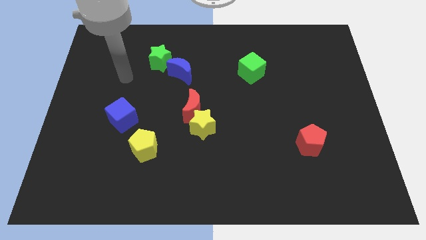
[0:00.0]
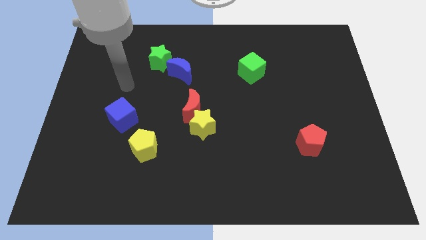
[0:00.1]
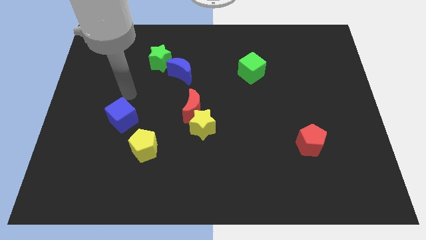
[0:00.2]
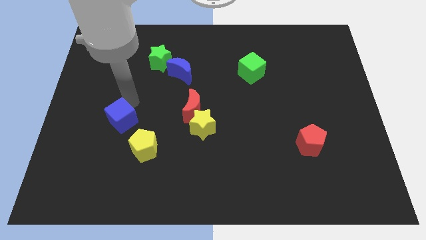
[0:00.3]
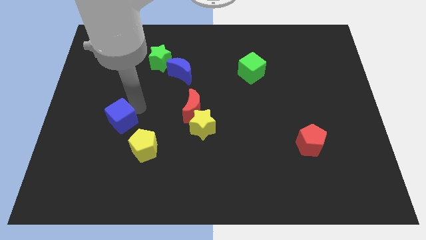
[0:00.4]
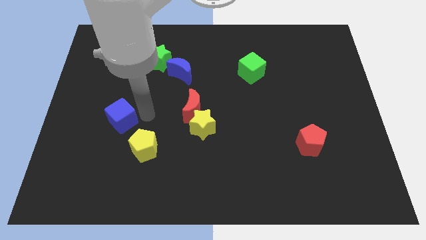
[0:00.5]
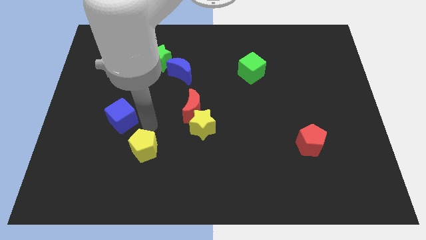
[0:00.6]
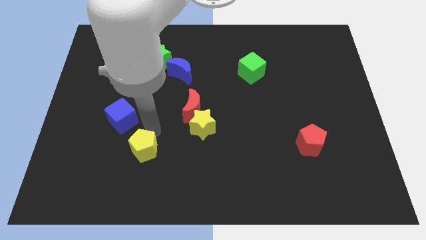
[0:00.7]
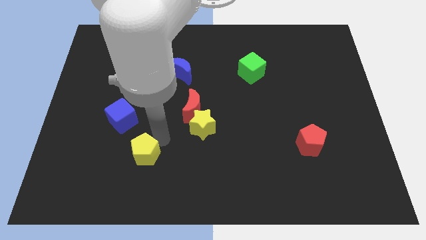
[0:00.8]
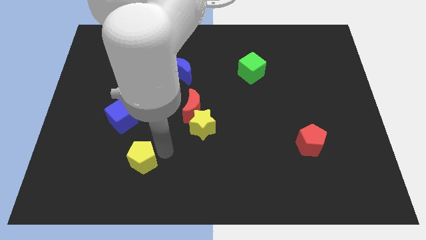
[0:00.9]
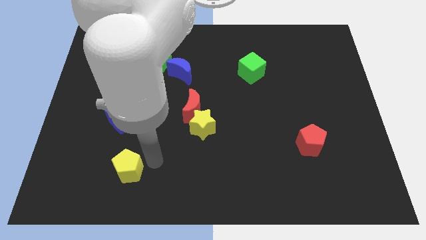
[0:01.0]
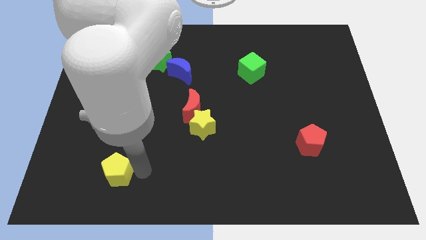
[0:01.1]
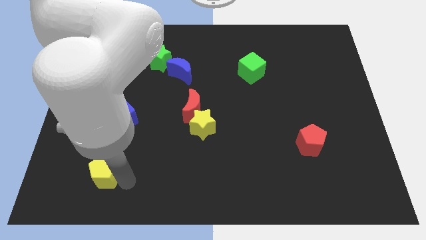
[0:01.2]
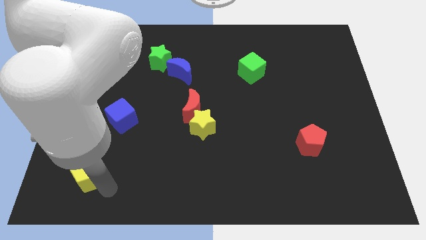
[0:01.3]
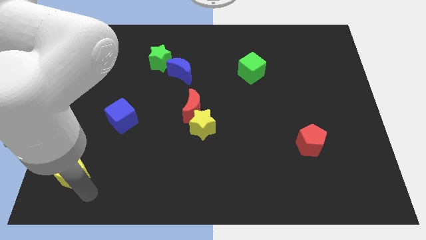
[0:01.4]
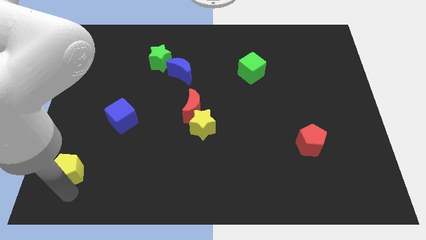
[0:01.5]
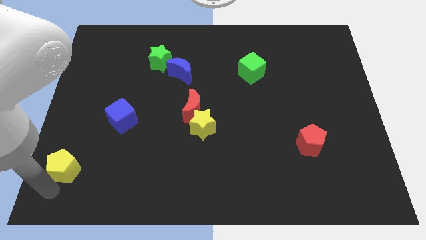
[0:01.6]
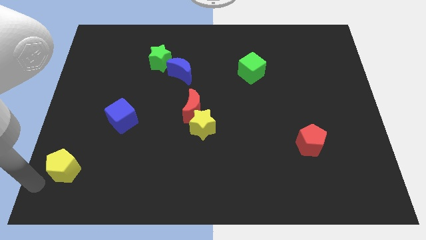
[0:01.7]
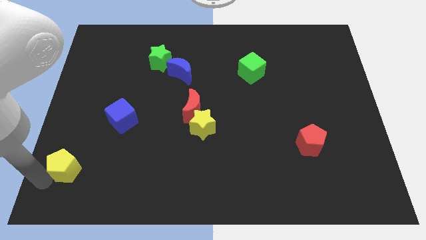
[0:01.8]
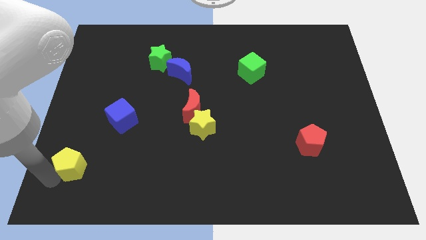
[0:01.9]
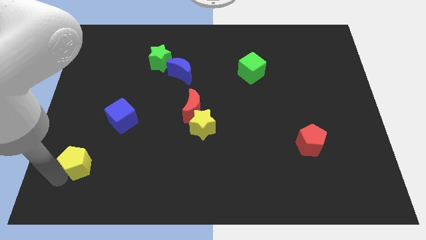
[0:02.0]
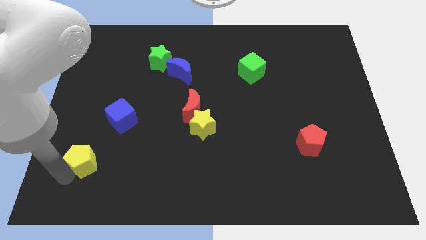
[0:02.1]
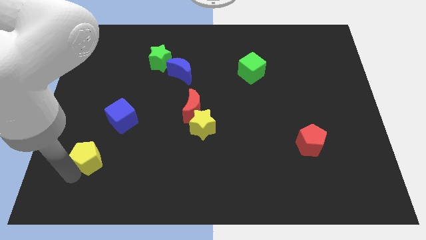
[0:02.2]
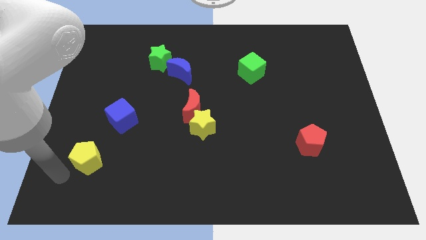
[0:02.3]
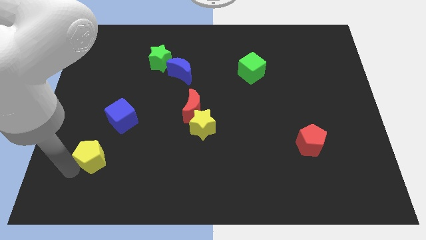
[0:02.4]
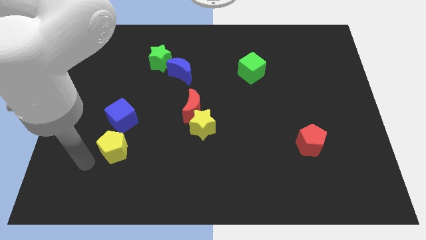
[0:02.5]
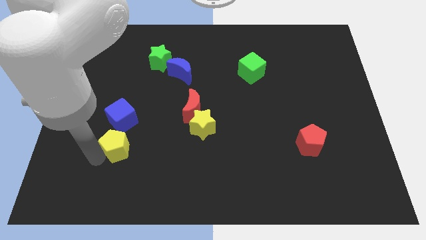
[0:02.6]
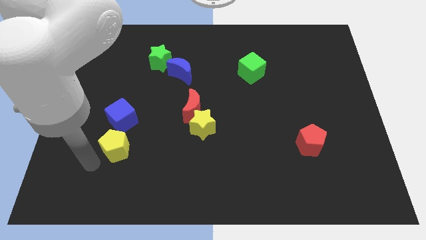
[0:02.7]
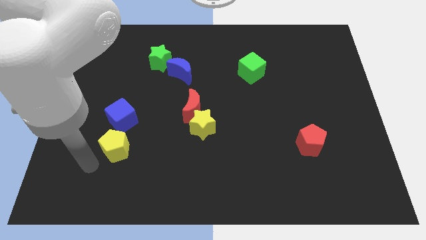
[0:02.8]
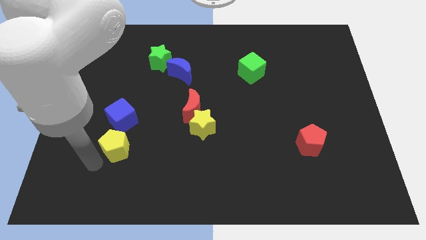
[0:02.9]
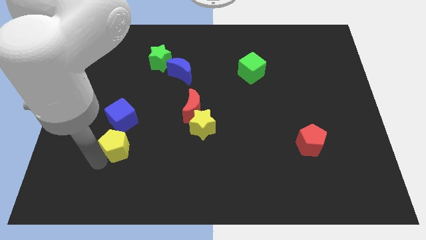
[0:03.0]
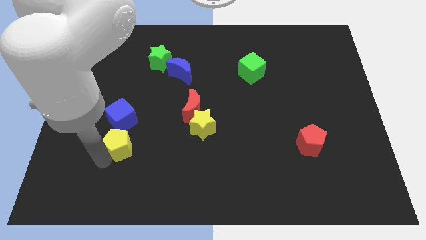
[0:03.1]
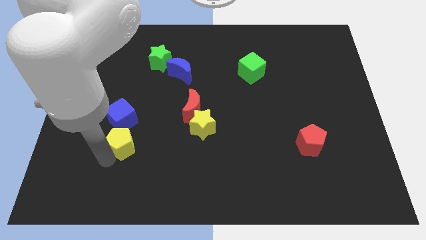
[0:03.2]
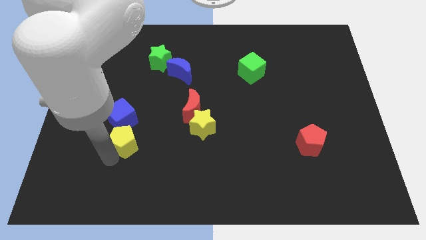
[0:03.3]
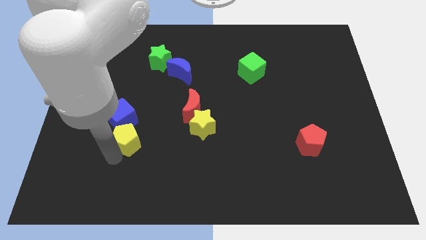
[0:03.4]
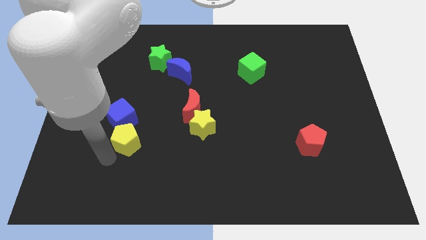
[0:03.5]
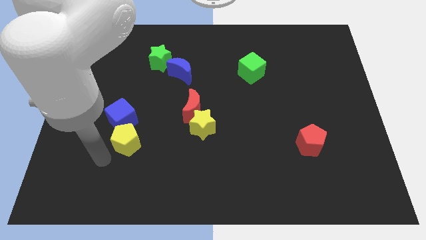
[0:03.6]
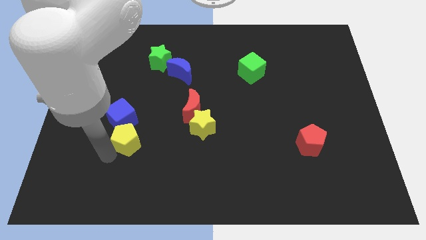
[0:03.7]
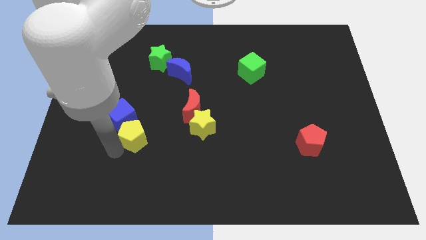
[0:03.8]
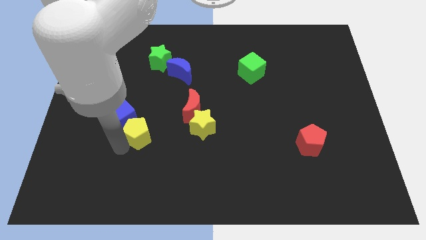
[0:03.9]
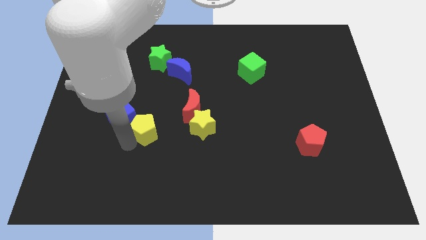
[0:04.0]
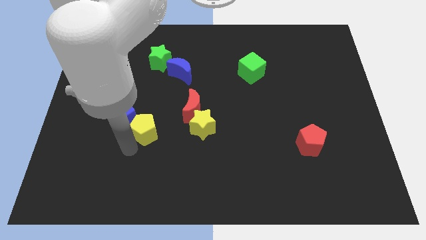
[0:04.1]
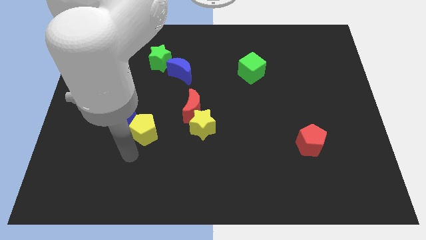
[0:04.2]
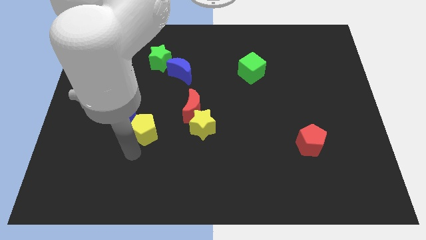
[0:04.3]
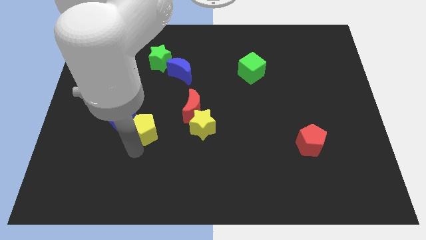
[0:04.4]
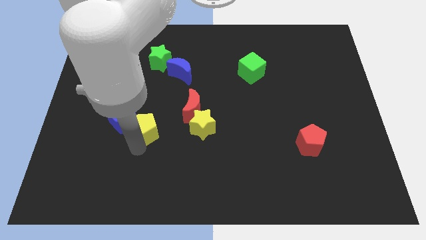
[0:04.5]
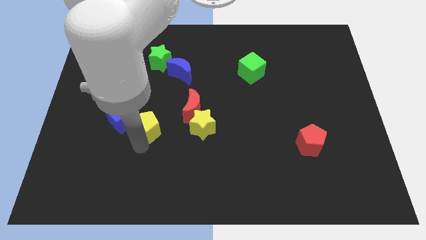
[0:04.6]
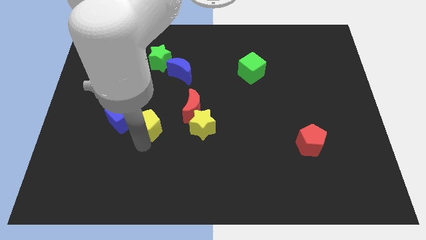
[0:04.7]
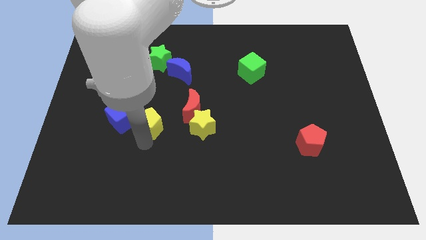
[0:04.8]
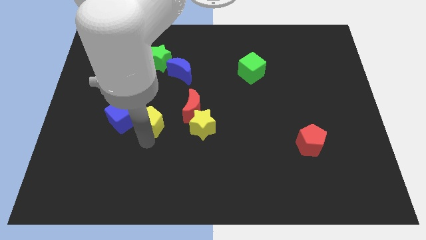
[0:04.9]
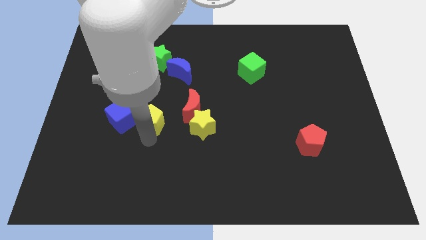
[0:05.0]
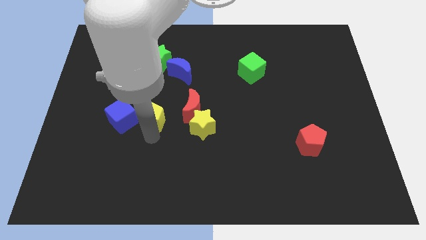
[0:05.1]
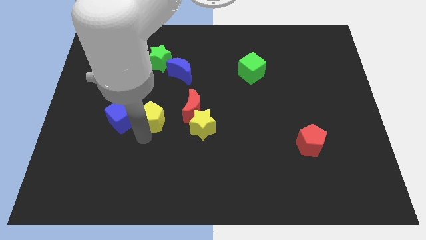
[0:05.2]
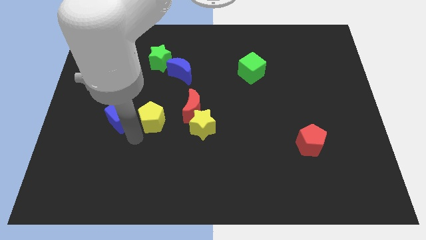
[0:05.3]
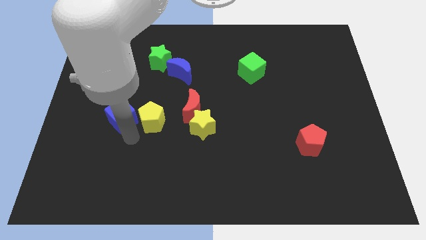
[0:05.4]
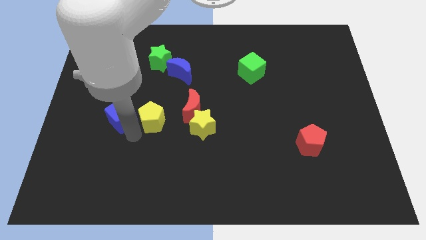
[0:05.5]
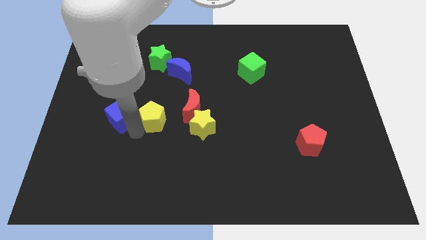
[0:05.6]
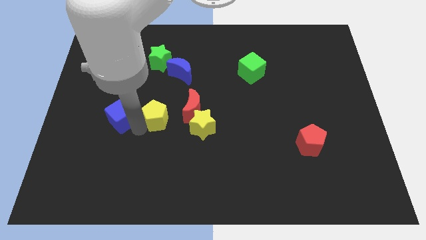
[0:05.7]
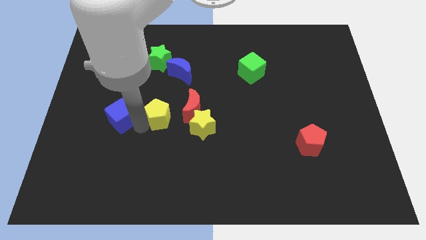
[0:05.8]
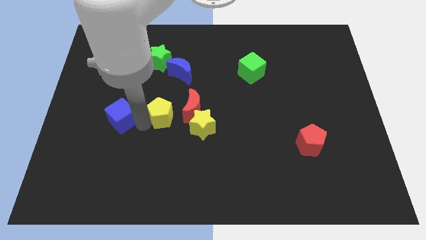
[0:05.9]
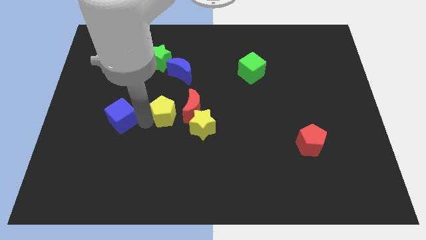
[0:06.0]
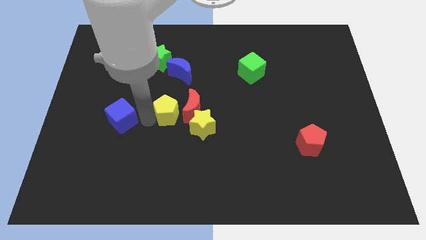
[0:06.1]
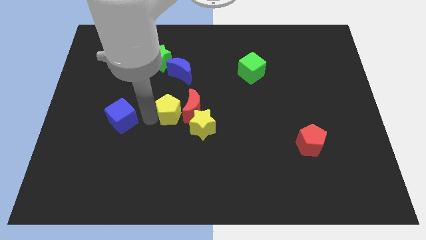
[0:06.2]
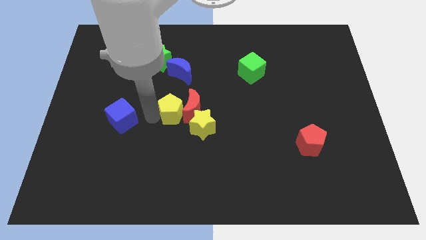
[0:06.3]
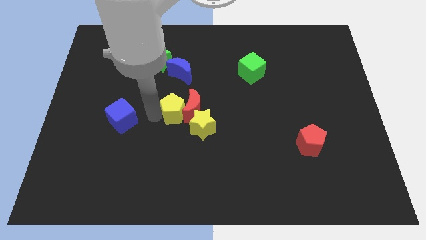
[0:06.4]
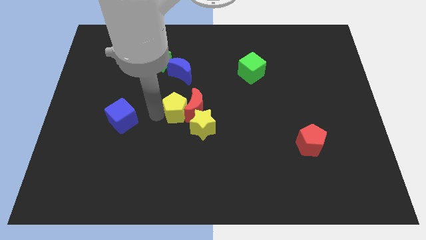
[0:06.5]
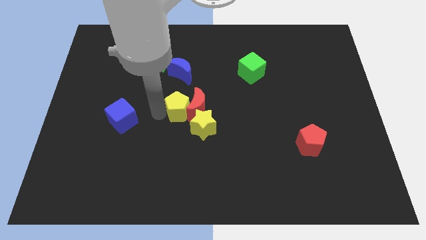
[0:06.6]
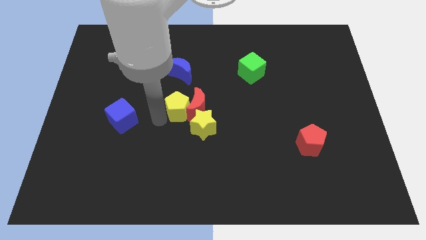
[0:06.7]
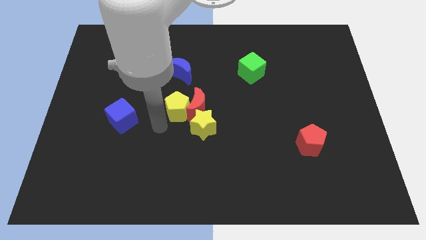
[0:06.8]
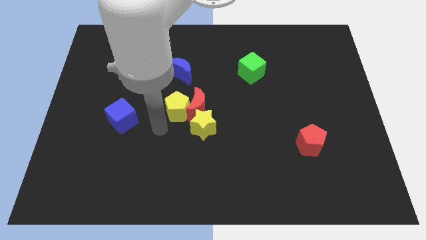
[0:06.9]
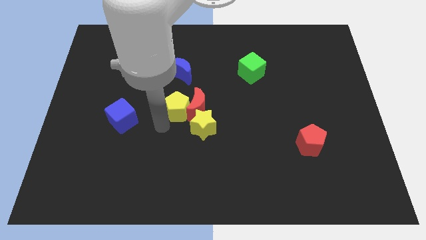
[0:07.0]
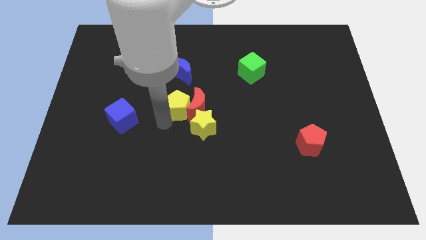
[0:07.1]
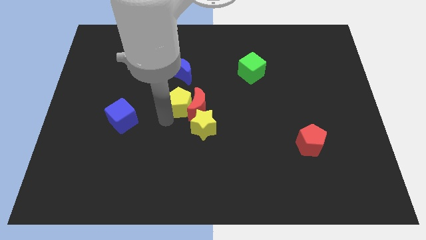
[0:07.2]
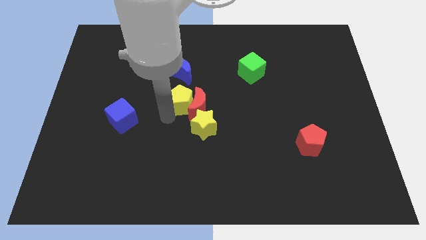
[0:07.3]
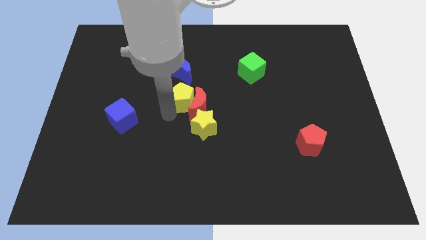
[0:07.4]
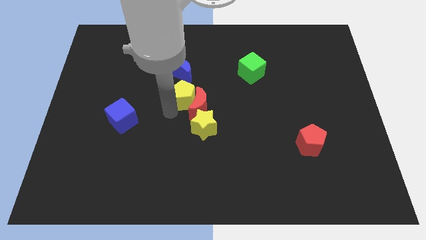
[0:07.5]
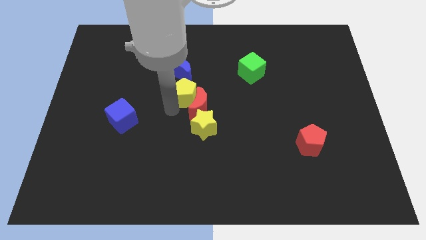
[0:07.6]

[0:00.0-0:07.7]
move the yellow pentagon diagonally down and to the right of the blue moon
